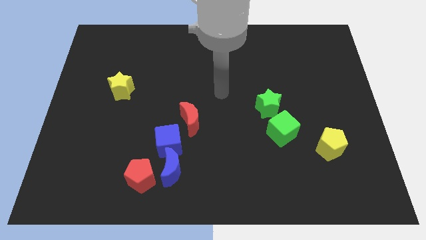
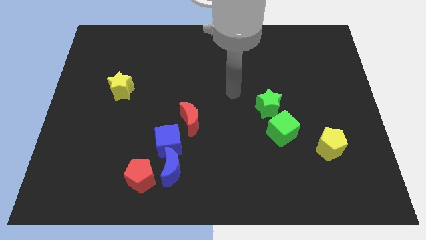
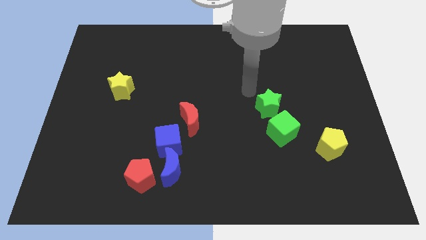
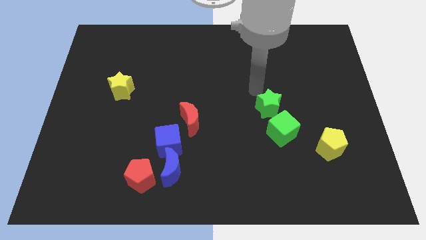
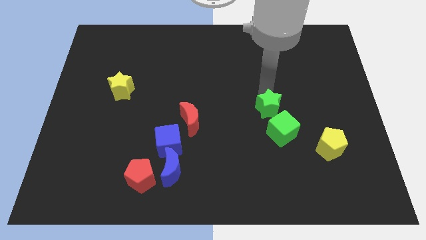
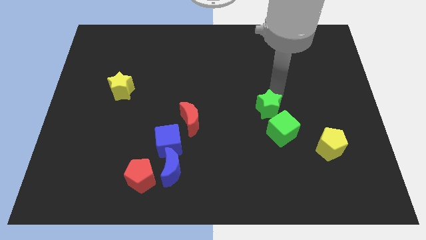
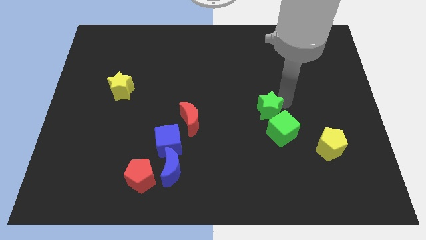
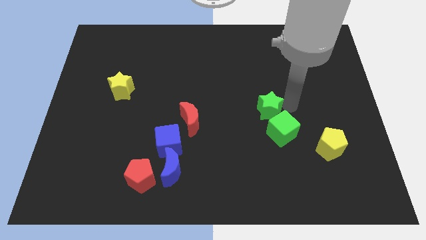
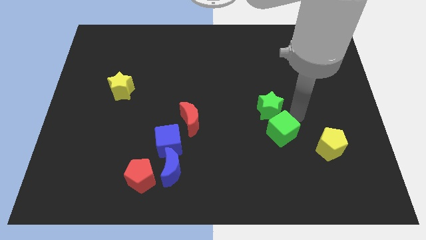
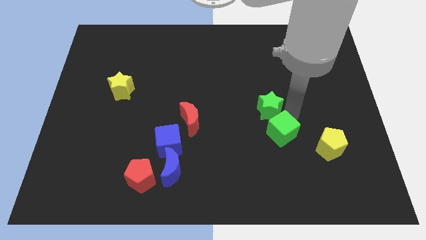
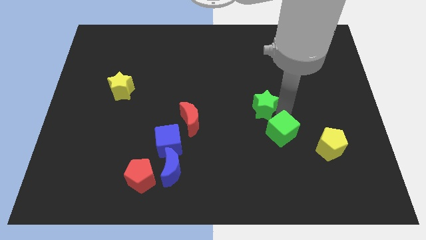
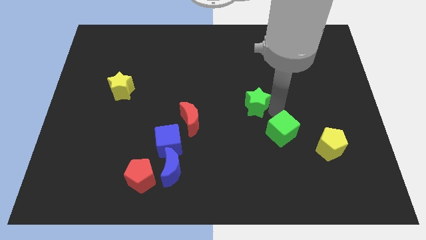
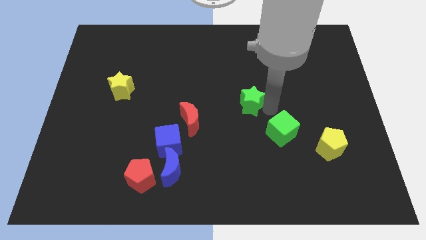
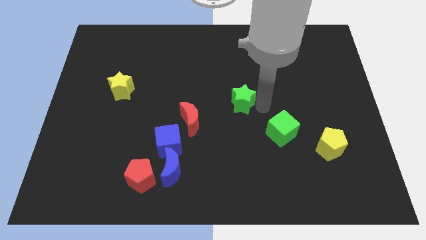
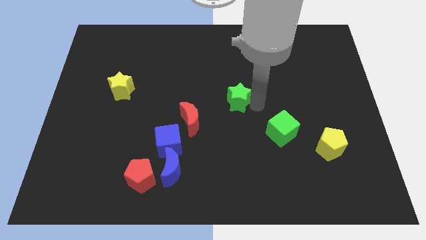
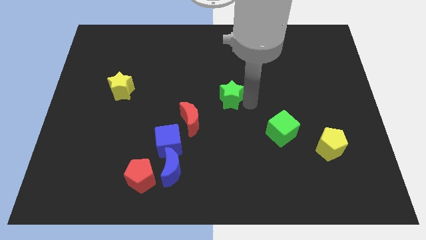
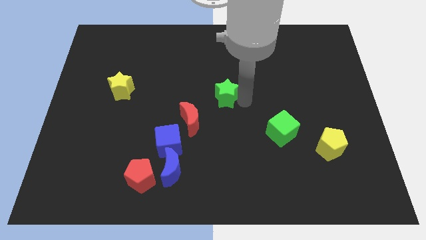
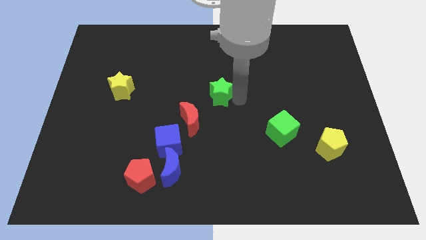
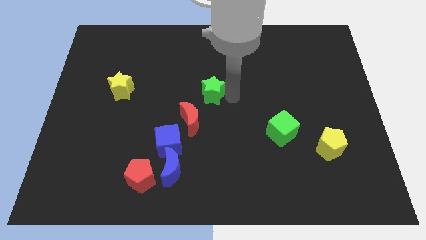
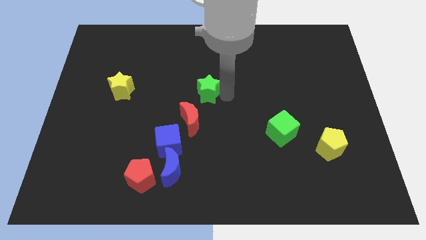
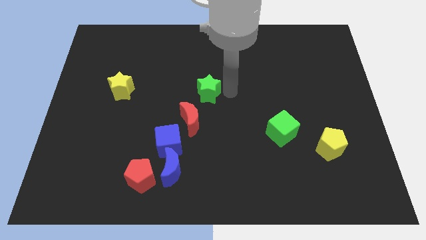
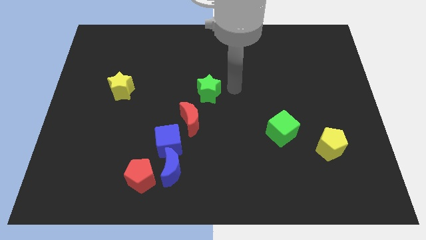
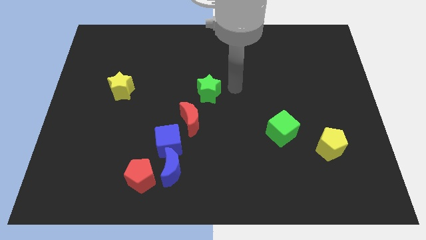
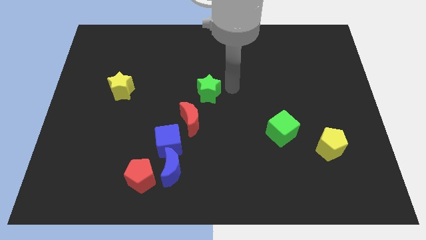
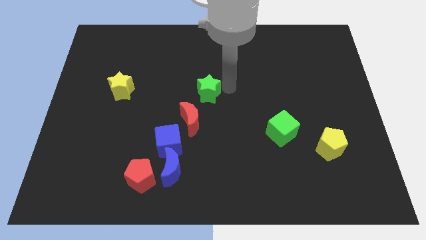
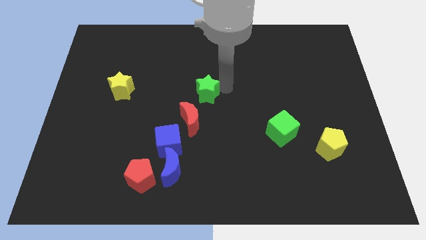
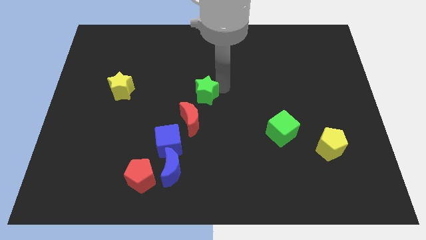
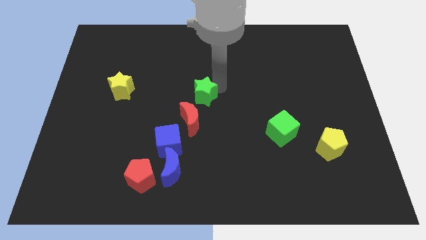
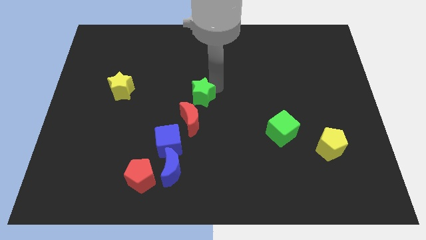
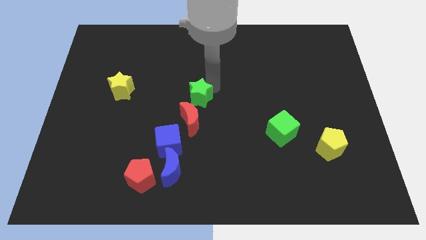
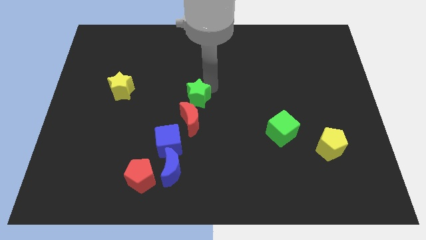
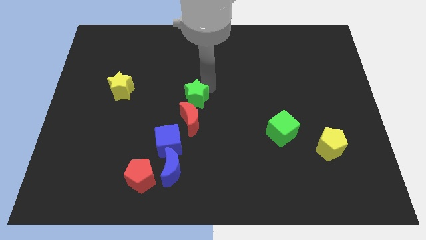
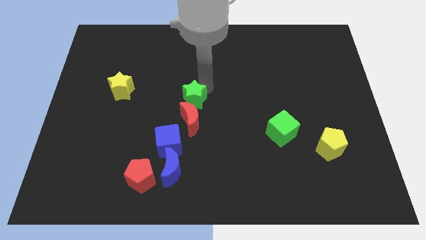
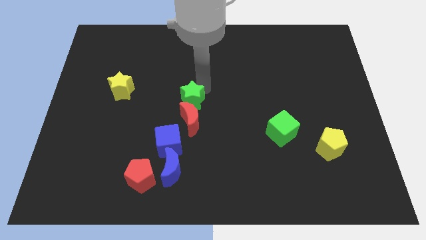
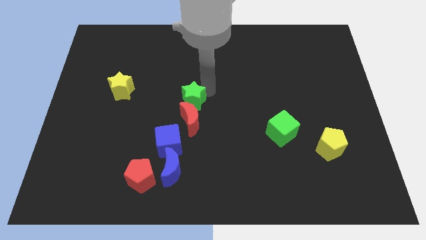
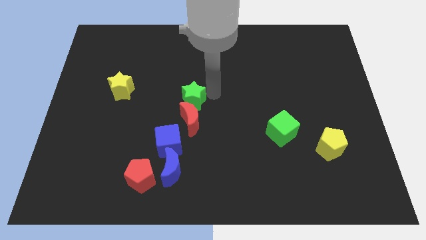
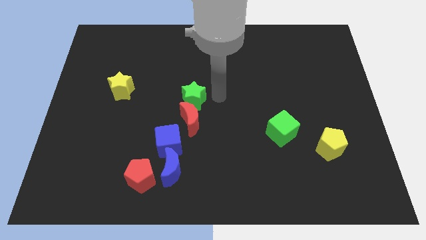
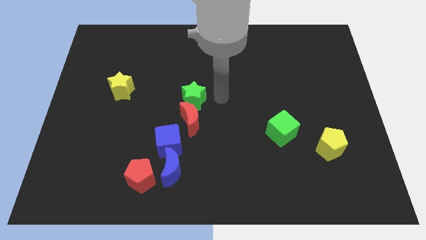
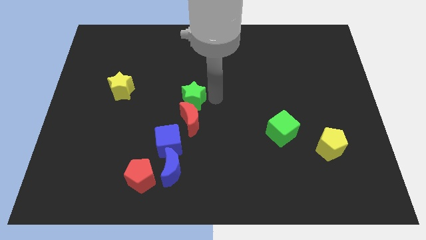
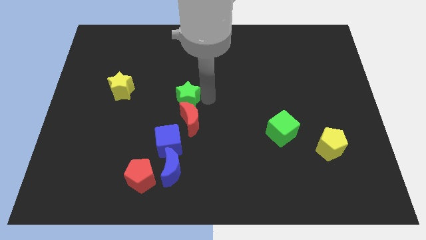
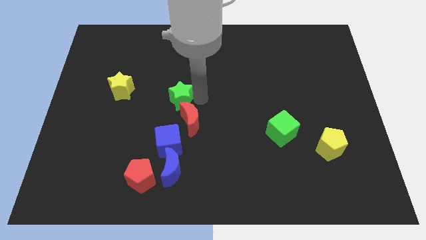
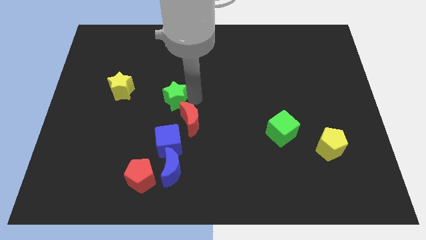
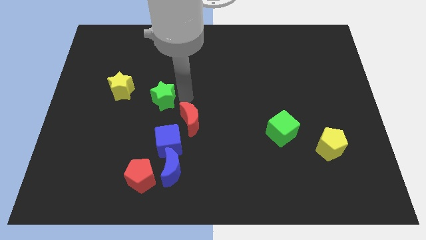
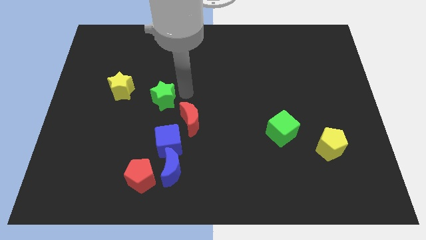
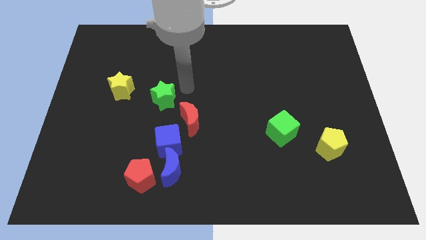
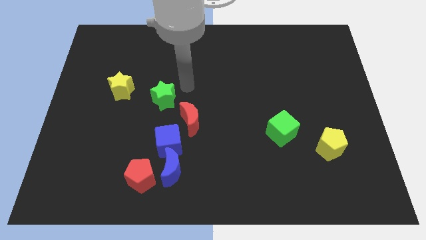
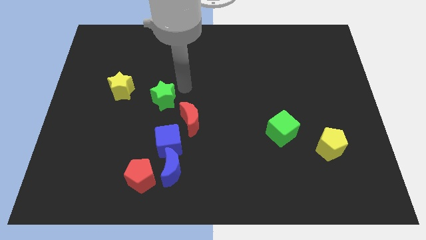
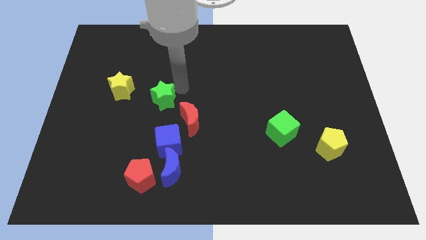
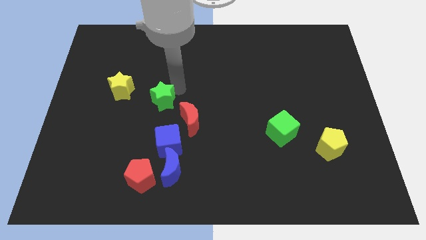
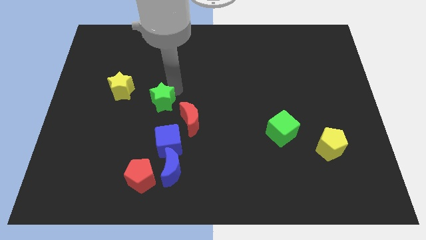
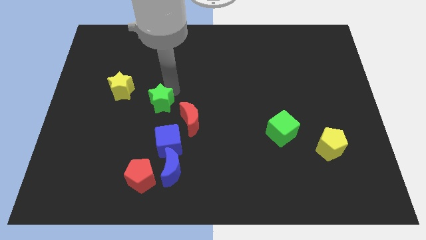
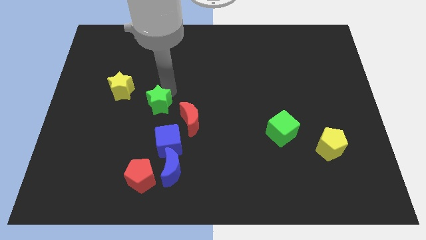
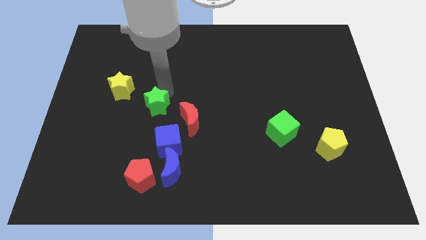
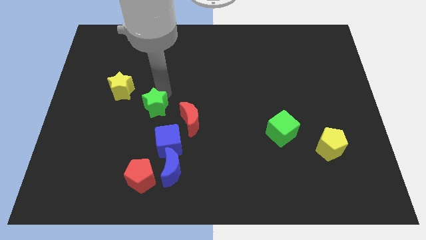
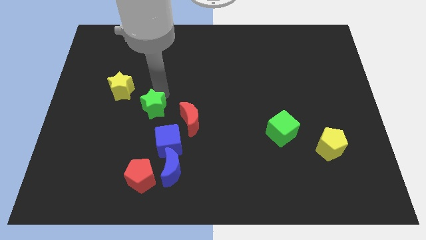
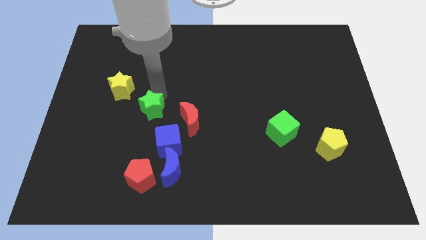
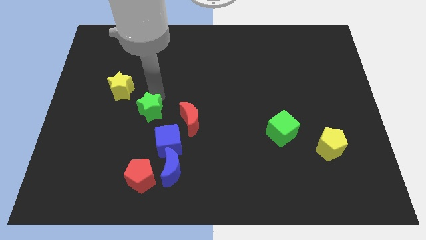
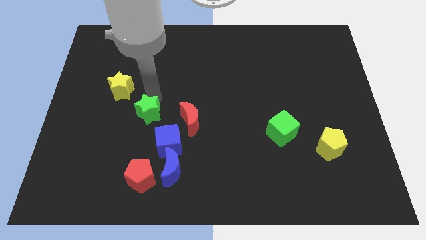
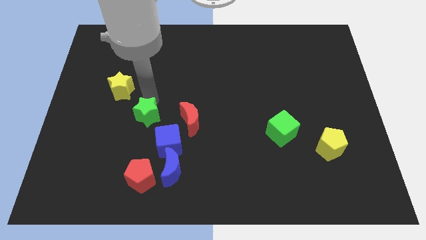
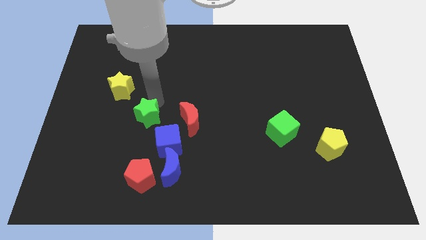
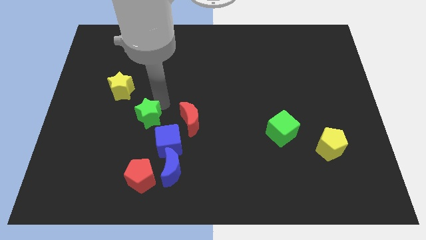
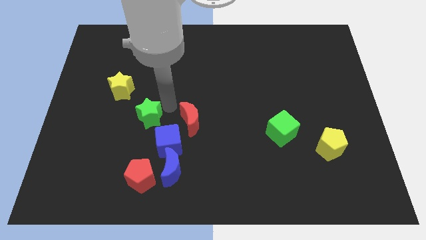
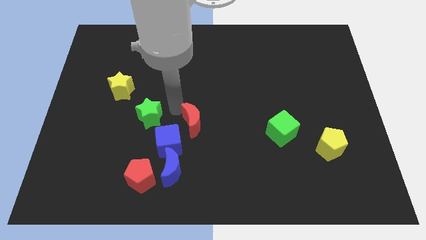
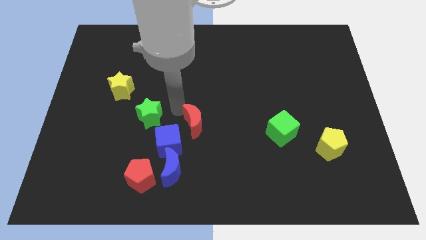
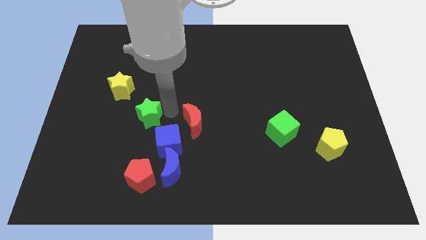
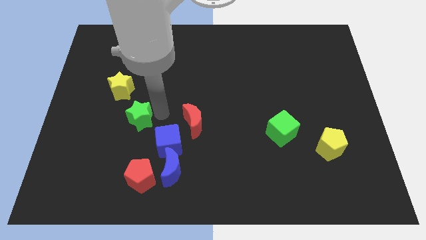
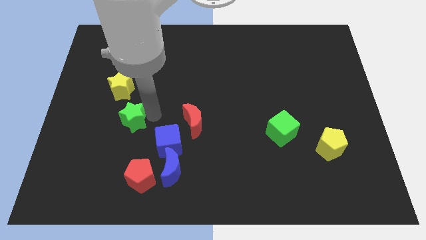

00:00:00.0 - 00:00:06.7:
put the green star to the bottom of the yellow star
